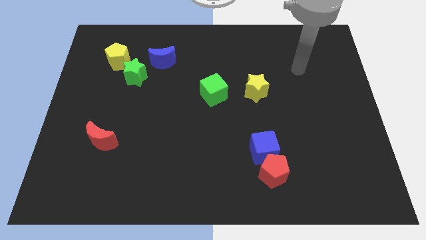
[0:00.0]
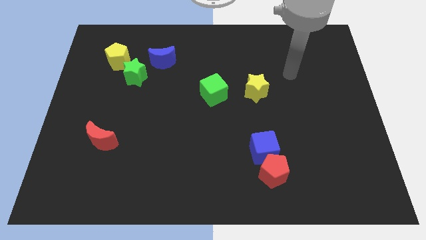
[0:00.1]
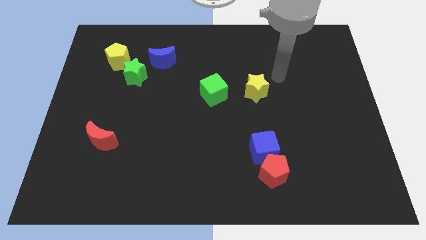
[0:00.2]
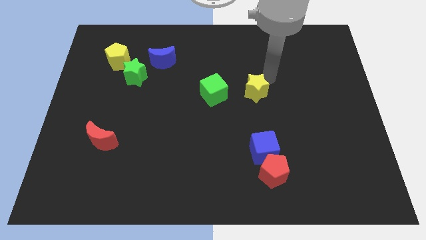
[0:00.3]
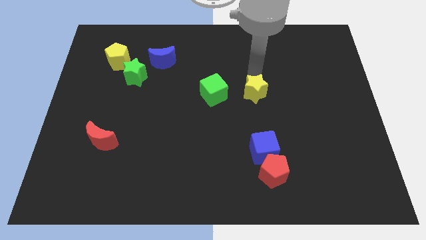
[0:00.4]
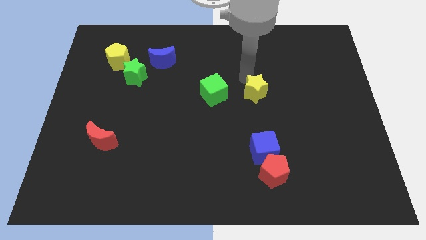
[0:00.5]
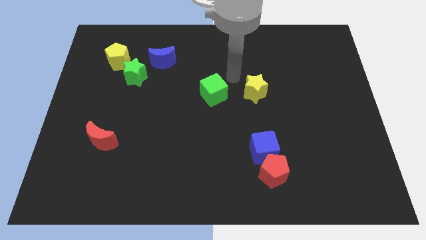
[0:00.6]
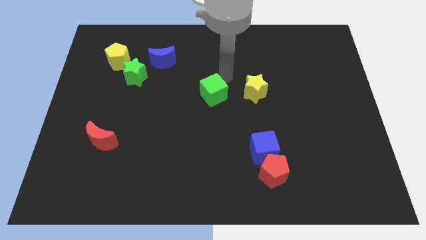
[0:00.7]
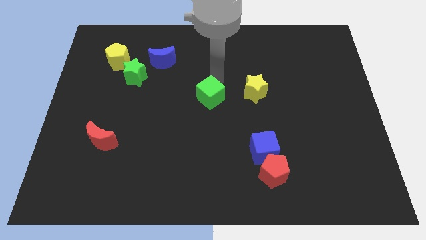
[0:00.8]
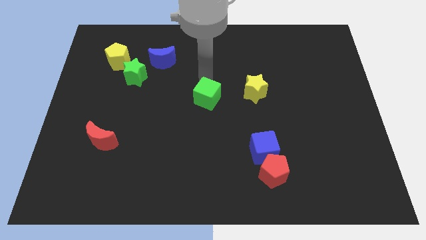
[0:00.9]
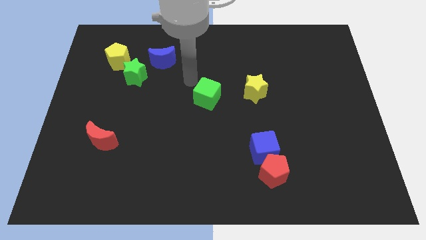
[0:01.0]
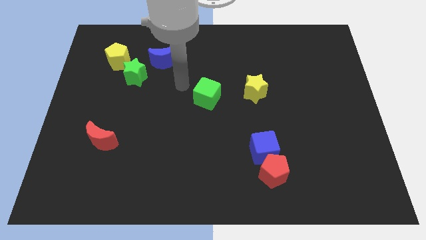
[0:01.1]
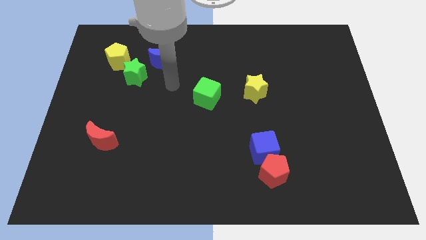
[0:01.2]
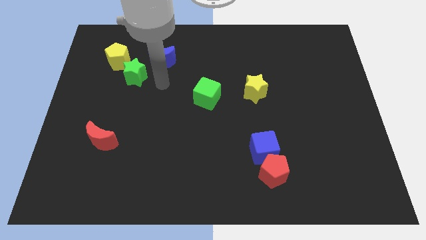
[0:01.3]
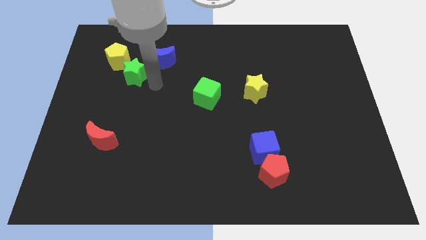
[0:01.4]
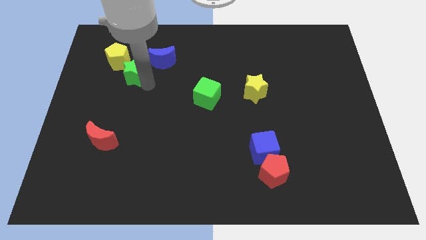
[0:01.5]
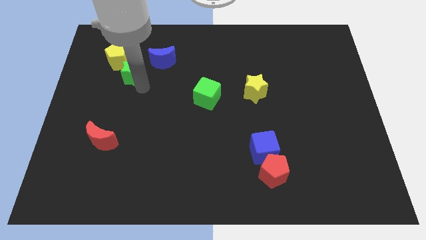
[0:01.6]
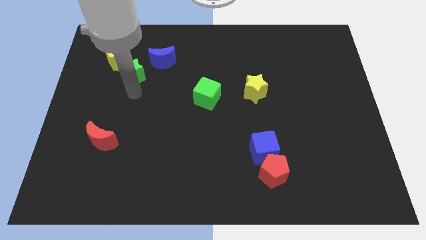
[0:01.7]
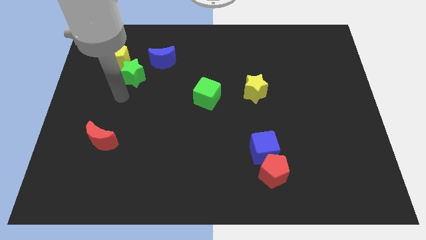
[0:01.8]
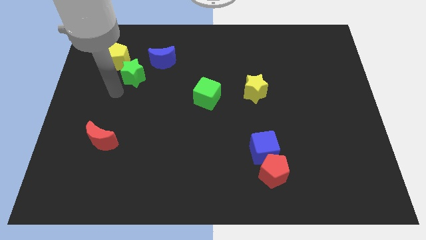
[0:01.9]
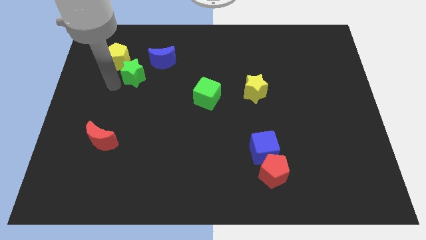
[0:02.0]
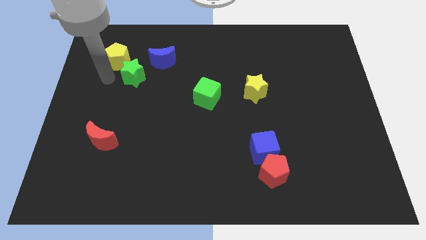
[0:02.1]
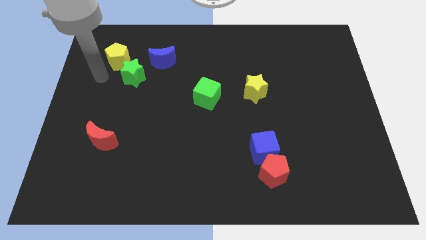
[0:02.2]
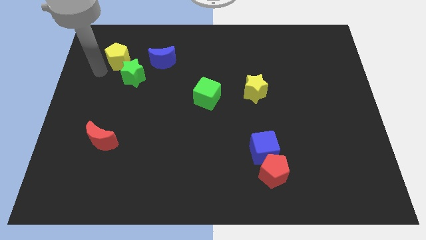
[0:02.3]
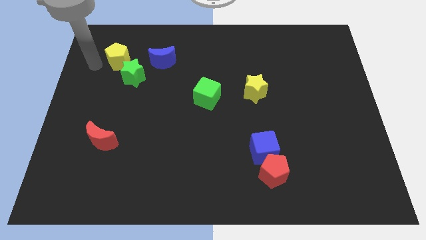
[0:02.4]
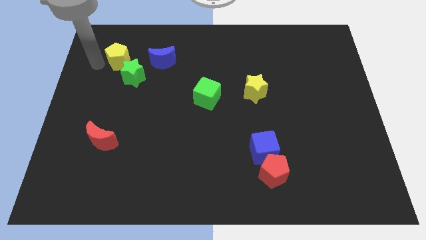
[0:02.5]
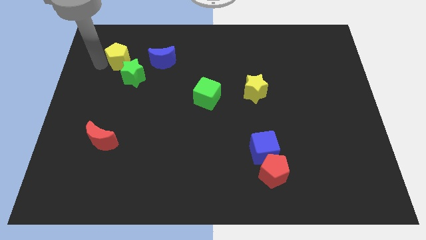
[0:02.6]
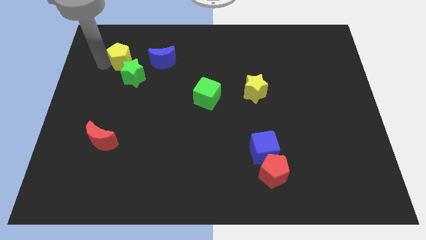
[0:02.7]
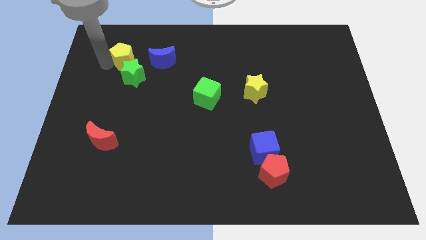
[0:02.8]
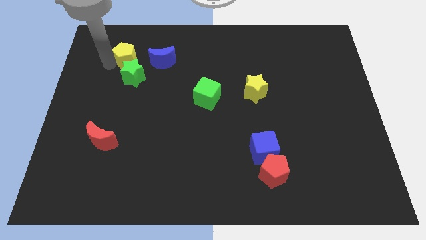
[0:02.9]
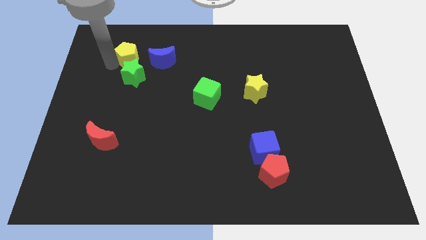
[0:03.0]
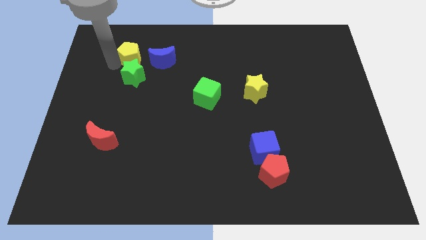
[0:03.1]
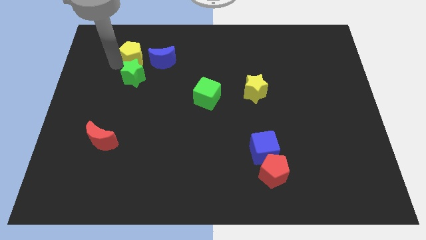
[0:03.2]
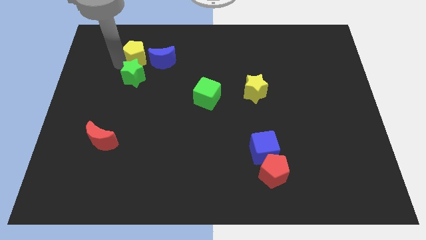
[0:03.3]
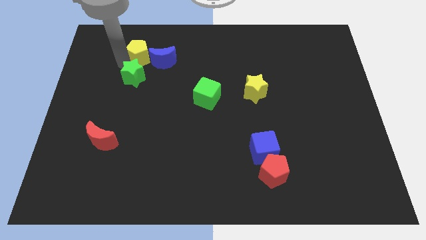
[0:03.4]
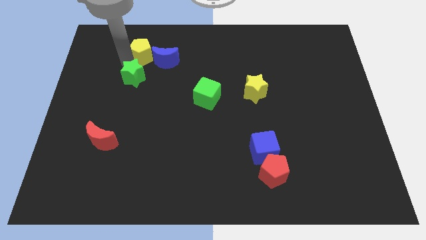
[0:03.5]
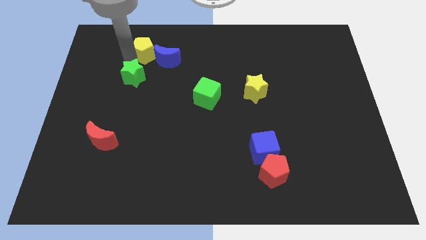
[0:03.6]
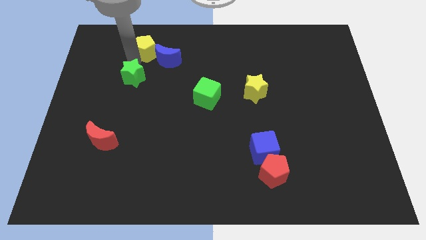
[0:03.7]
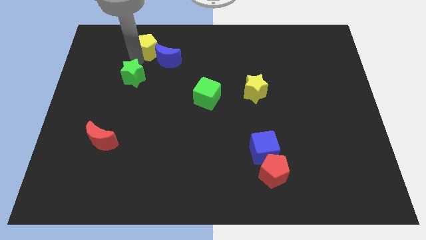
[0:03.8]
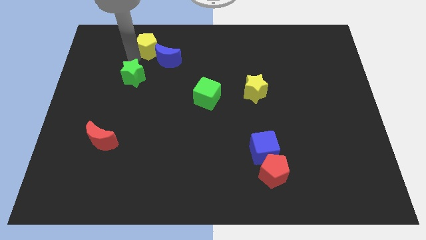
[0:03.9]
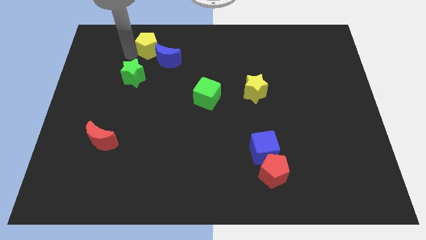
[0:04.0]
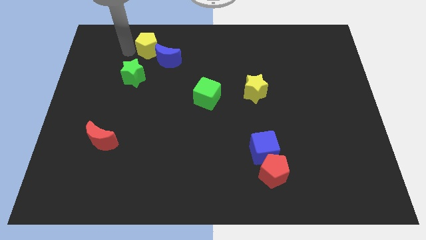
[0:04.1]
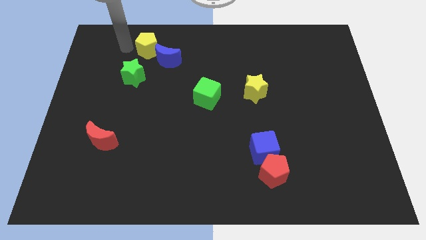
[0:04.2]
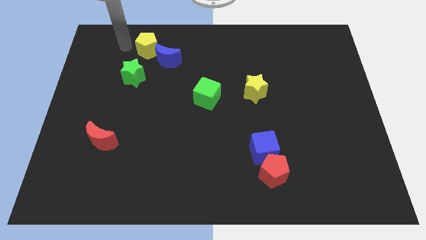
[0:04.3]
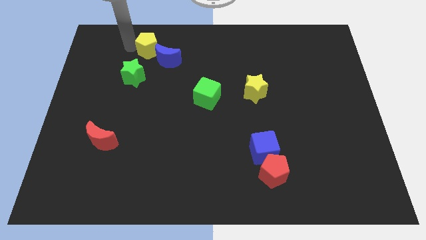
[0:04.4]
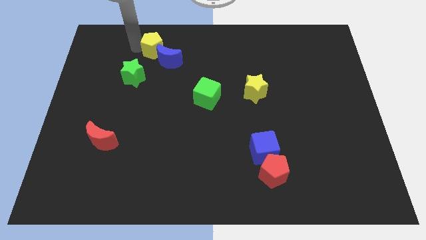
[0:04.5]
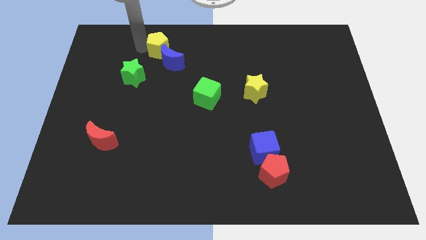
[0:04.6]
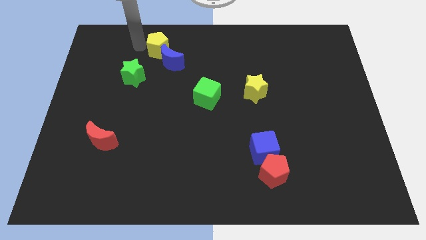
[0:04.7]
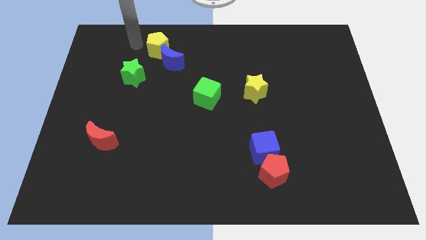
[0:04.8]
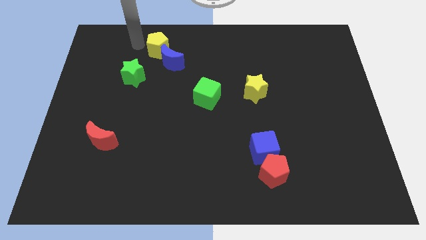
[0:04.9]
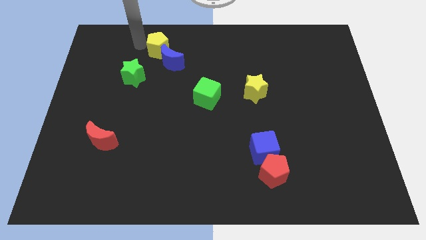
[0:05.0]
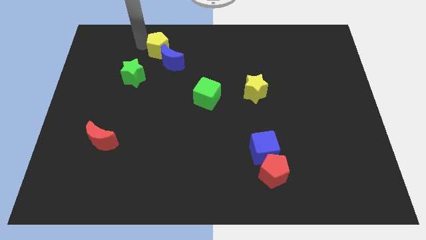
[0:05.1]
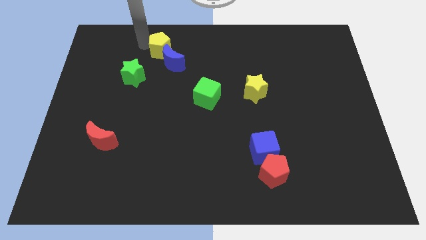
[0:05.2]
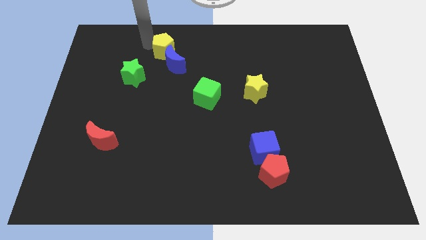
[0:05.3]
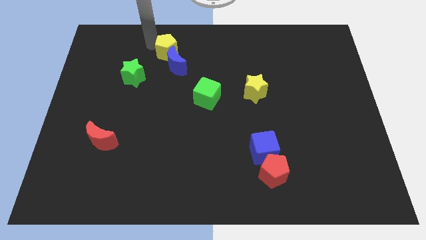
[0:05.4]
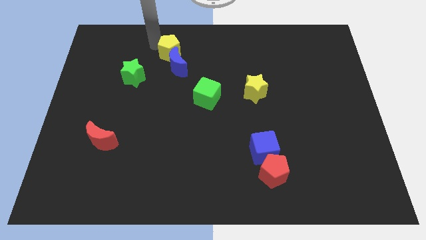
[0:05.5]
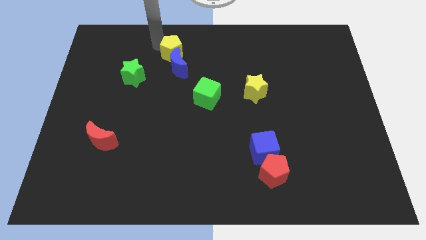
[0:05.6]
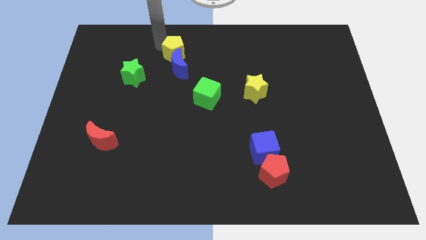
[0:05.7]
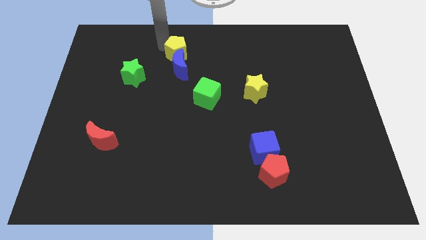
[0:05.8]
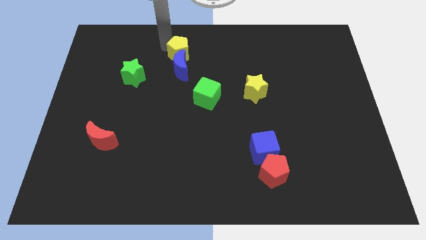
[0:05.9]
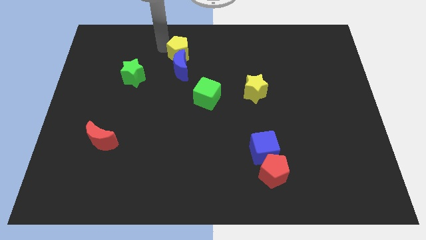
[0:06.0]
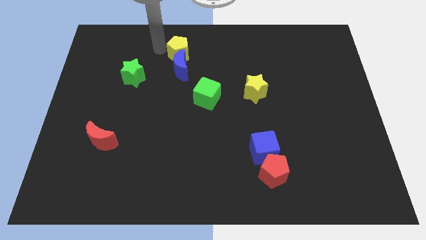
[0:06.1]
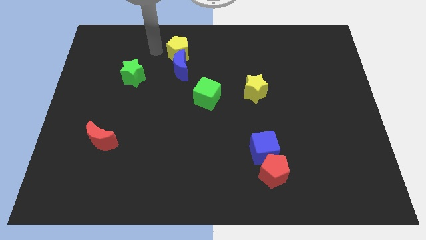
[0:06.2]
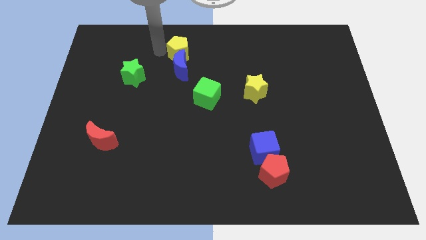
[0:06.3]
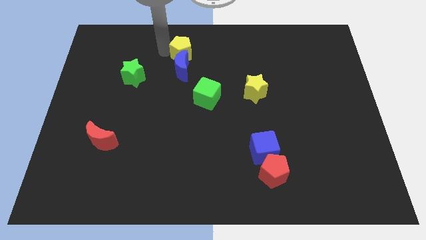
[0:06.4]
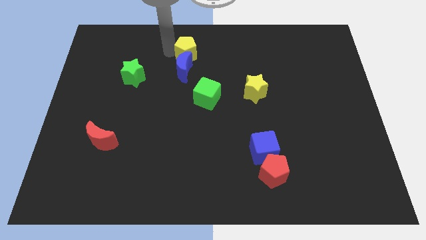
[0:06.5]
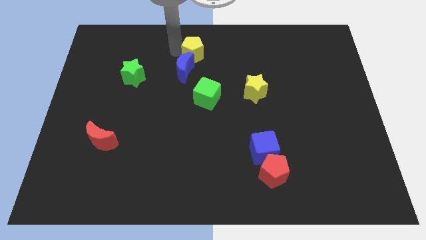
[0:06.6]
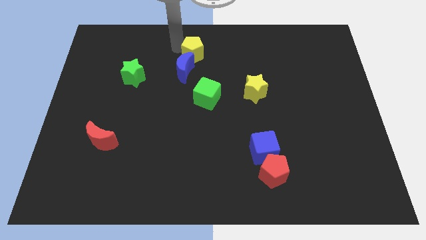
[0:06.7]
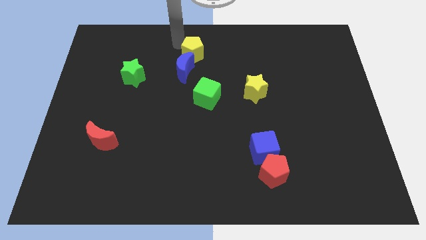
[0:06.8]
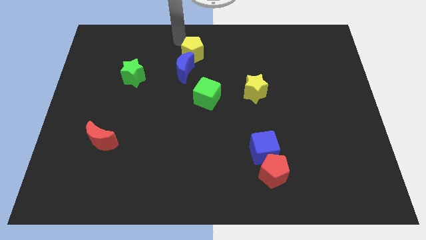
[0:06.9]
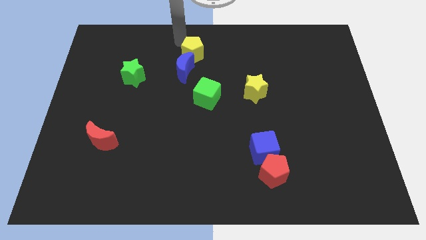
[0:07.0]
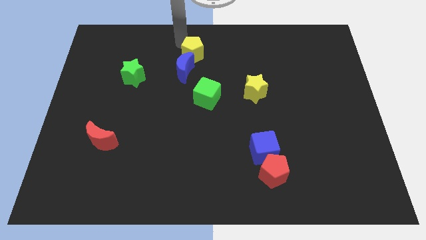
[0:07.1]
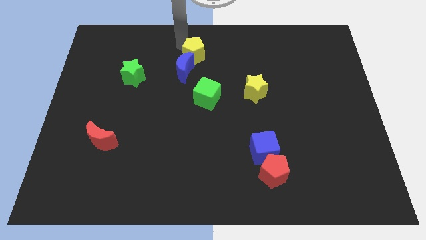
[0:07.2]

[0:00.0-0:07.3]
push the yellow pentagon to the top of the green cube
